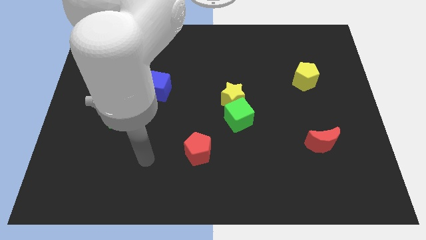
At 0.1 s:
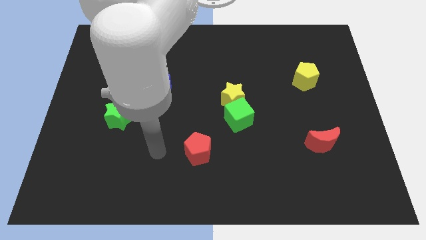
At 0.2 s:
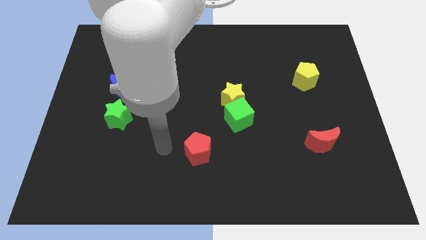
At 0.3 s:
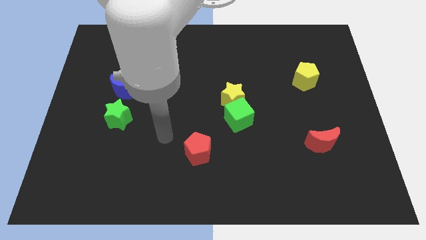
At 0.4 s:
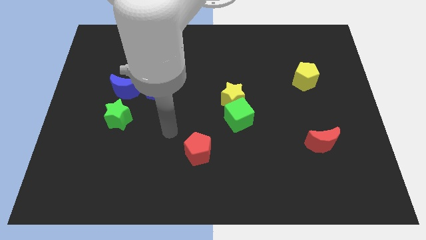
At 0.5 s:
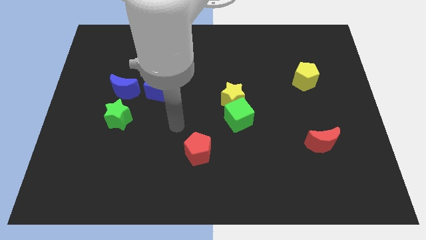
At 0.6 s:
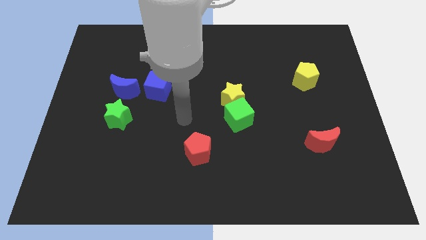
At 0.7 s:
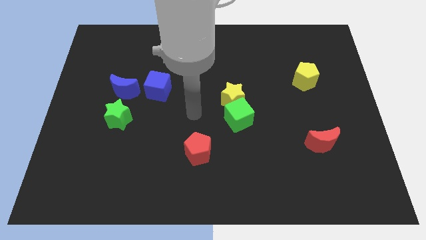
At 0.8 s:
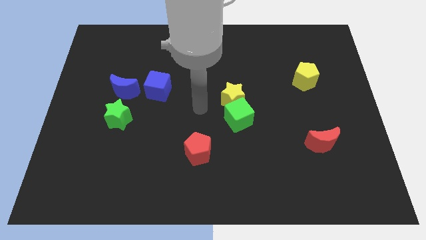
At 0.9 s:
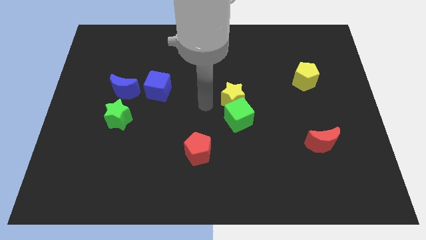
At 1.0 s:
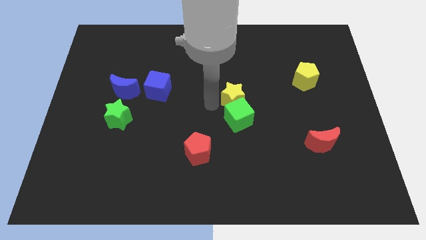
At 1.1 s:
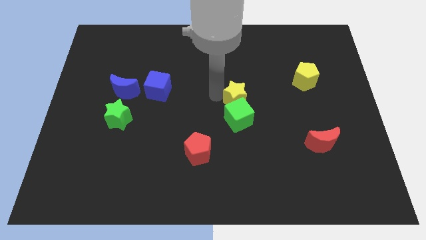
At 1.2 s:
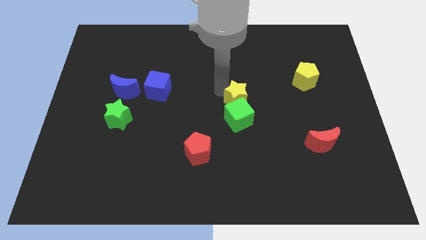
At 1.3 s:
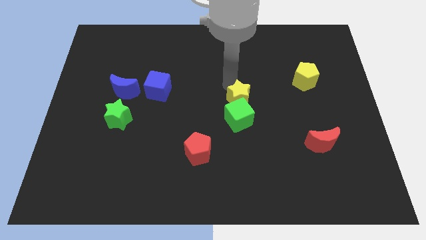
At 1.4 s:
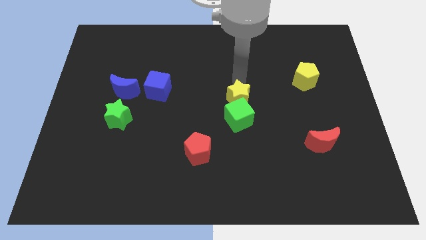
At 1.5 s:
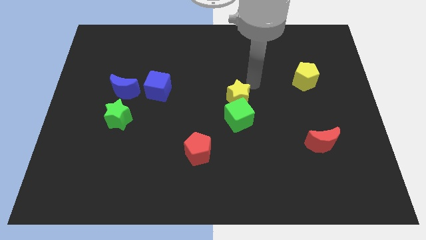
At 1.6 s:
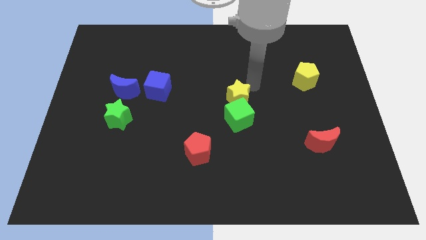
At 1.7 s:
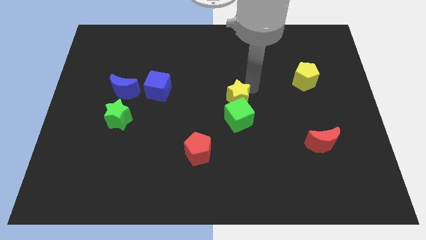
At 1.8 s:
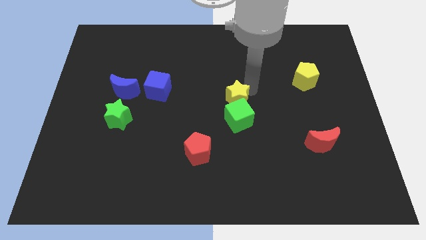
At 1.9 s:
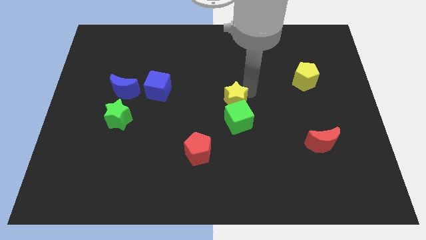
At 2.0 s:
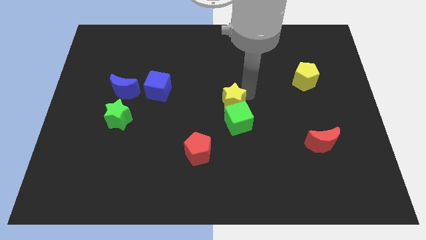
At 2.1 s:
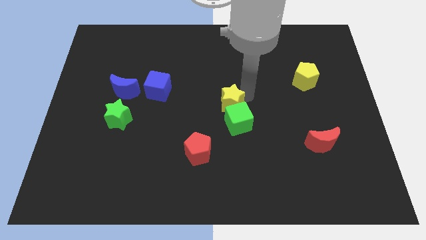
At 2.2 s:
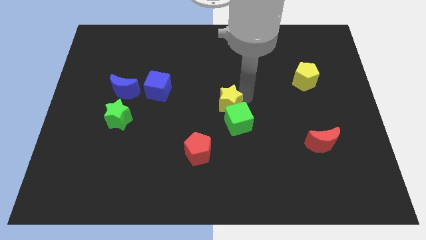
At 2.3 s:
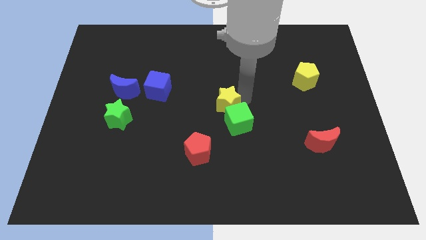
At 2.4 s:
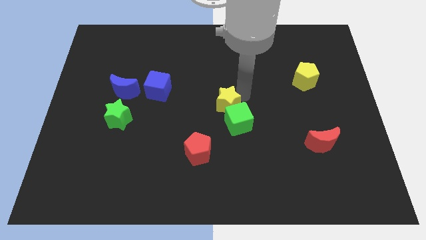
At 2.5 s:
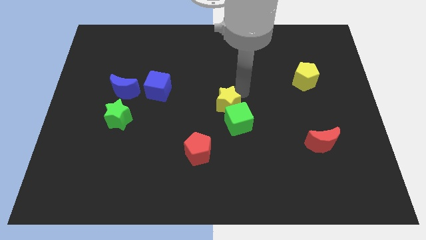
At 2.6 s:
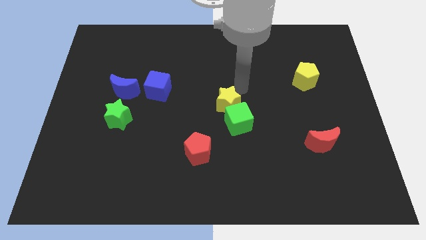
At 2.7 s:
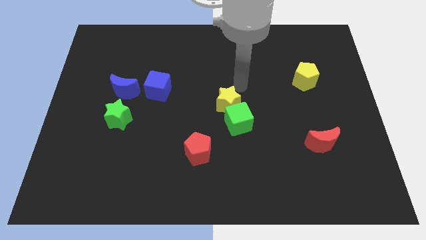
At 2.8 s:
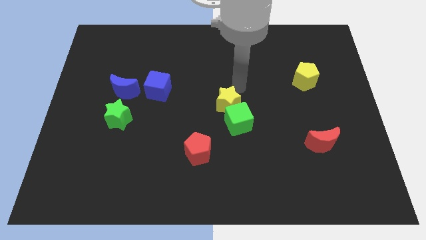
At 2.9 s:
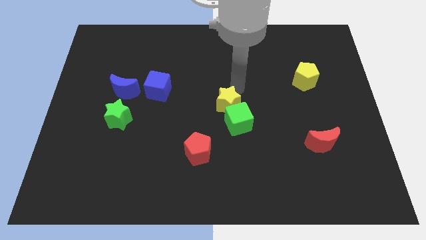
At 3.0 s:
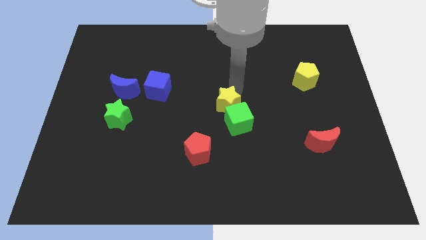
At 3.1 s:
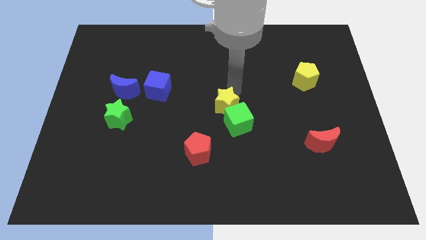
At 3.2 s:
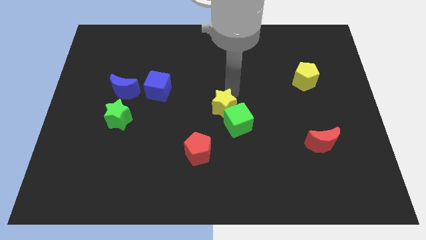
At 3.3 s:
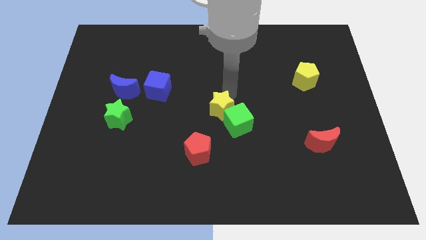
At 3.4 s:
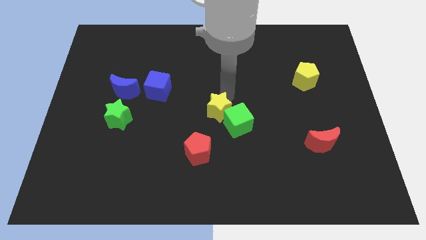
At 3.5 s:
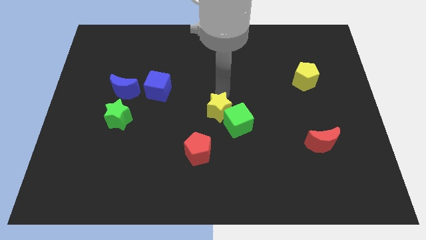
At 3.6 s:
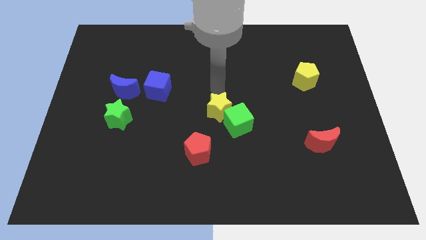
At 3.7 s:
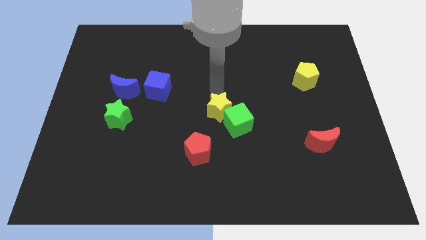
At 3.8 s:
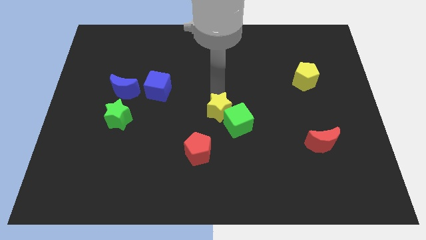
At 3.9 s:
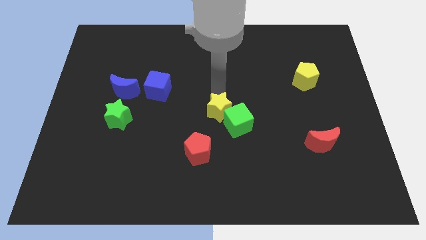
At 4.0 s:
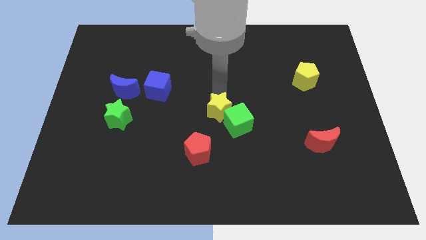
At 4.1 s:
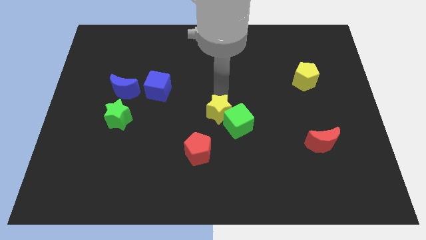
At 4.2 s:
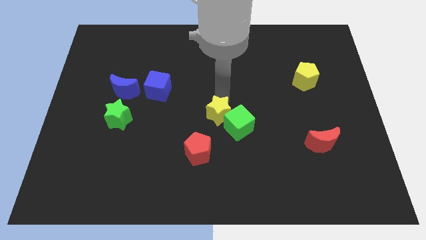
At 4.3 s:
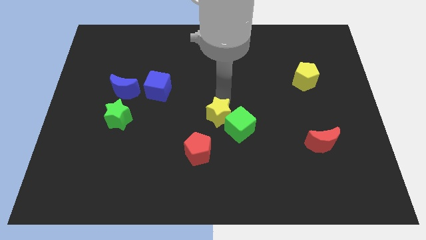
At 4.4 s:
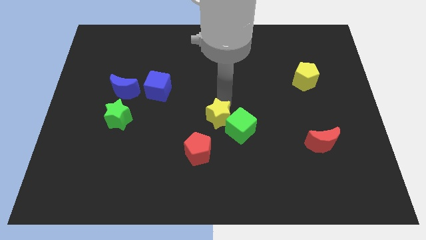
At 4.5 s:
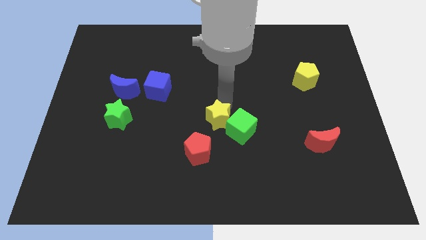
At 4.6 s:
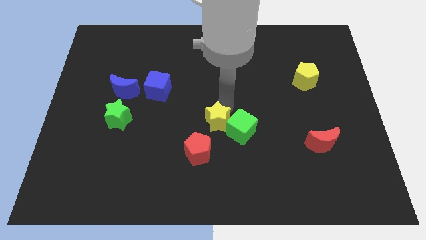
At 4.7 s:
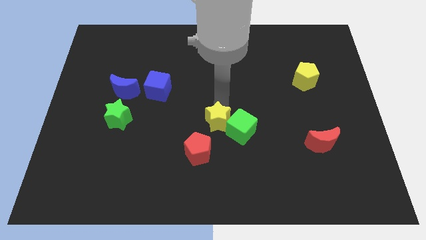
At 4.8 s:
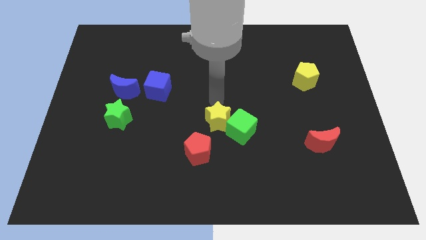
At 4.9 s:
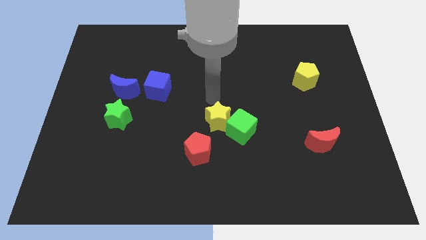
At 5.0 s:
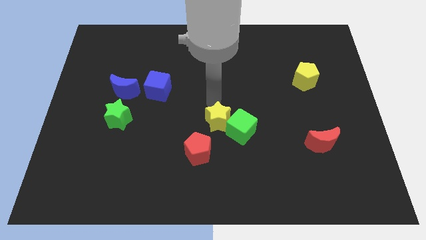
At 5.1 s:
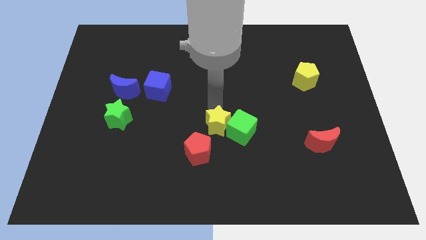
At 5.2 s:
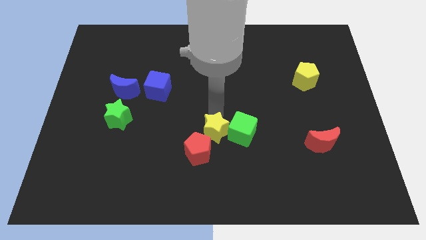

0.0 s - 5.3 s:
slightly slide the yellow star downwards

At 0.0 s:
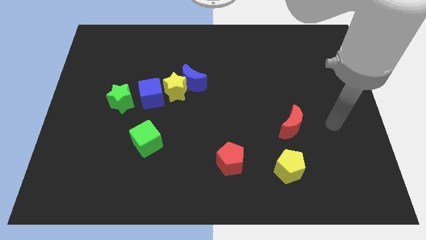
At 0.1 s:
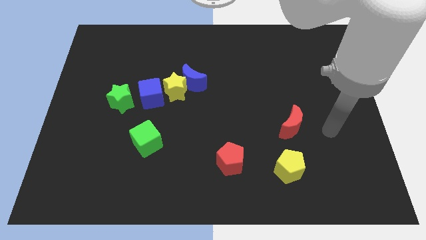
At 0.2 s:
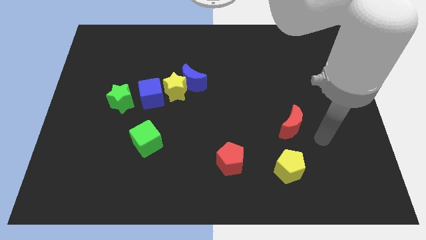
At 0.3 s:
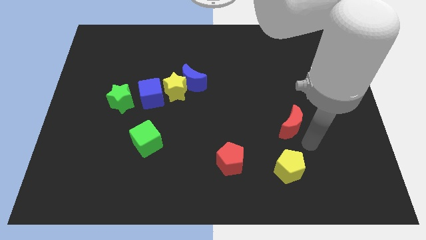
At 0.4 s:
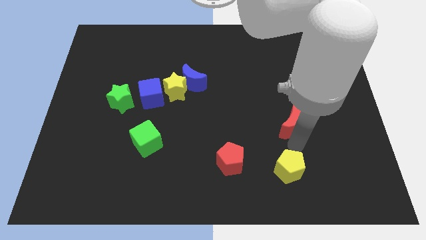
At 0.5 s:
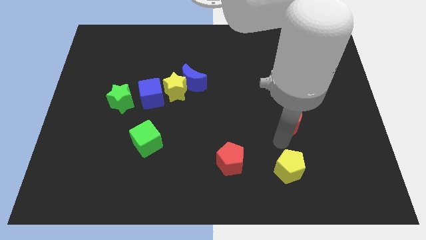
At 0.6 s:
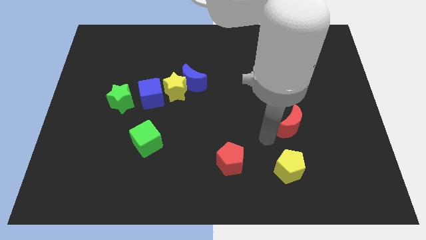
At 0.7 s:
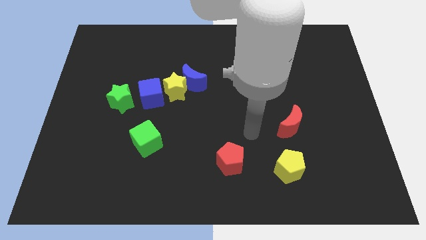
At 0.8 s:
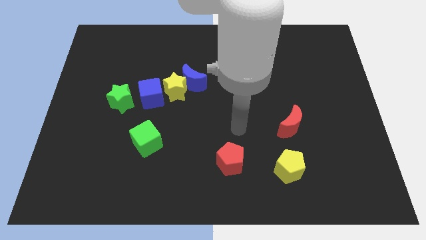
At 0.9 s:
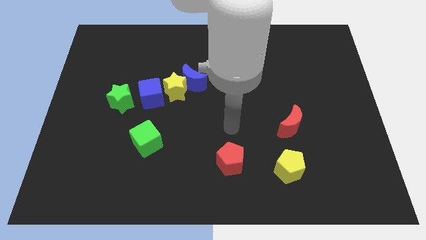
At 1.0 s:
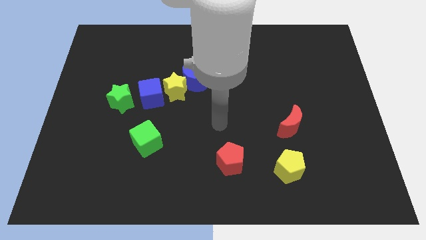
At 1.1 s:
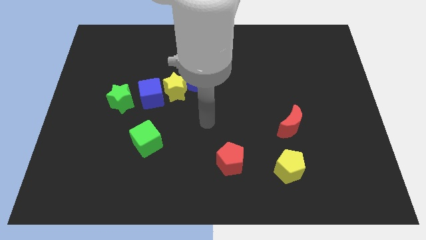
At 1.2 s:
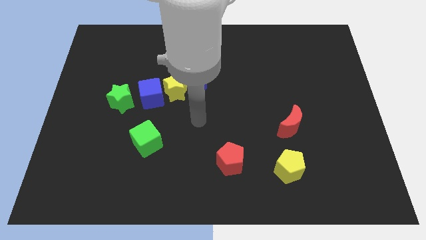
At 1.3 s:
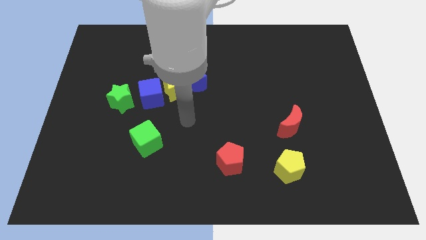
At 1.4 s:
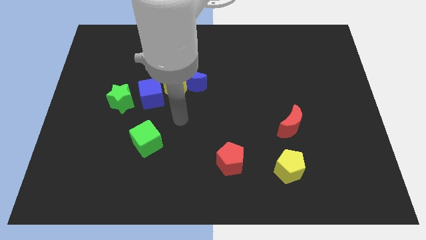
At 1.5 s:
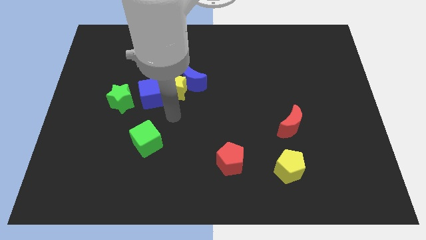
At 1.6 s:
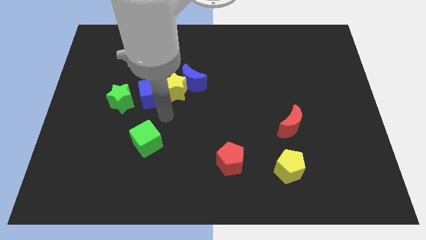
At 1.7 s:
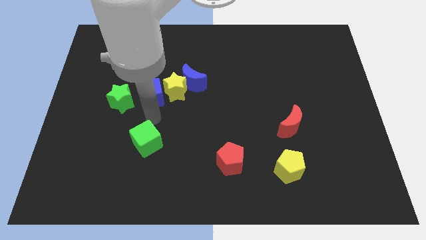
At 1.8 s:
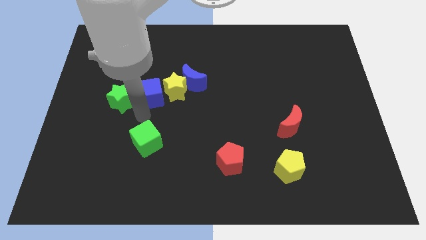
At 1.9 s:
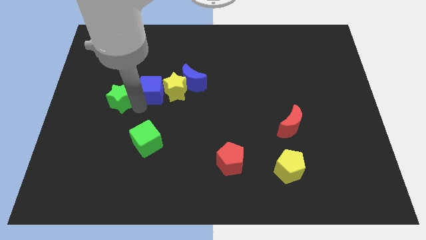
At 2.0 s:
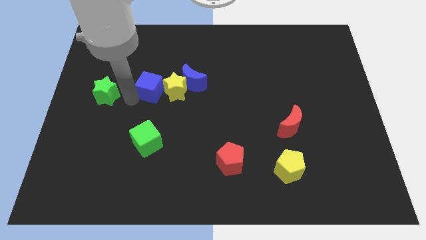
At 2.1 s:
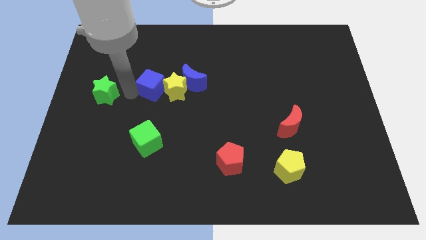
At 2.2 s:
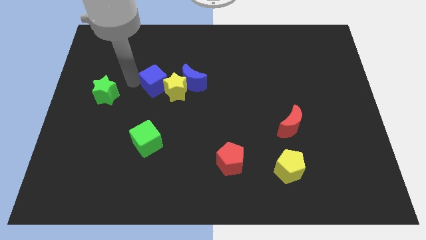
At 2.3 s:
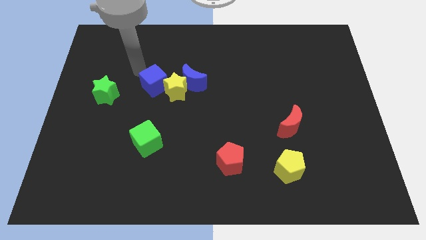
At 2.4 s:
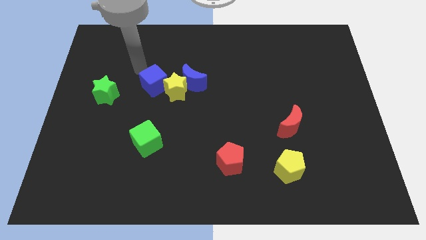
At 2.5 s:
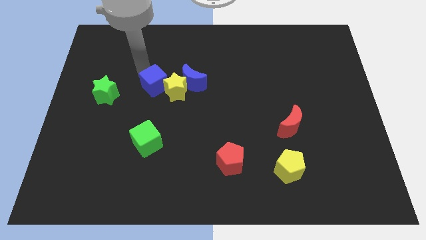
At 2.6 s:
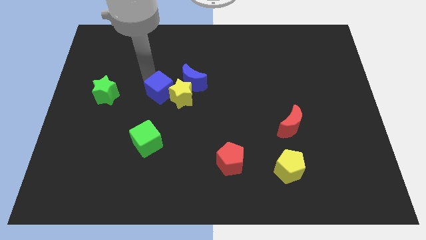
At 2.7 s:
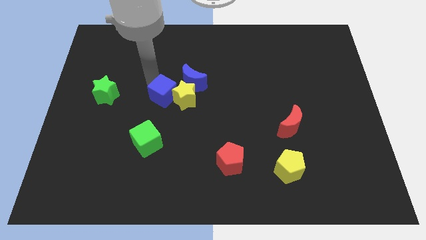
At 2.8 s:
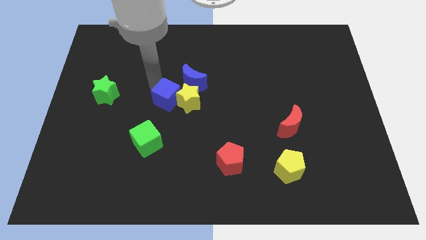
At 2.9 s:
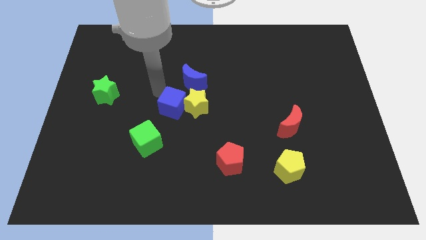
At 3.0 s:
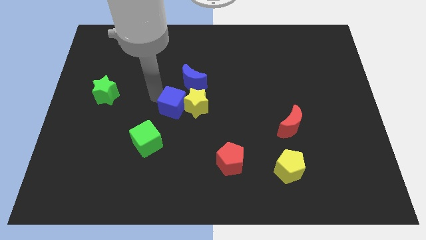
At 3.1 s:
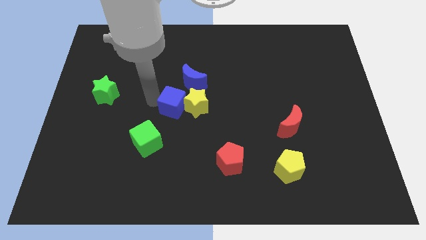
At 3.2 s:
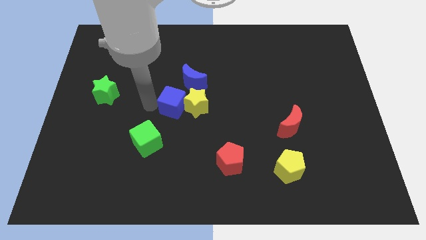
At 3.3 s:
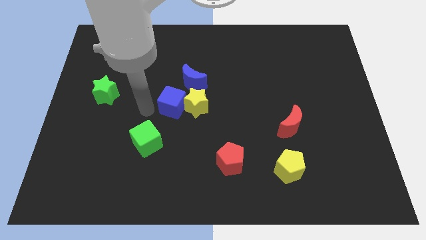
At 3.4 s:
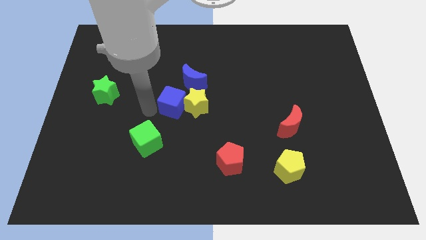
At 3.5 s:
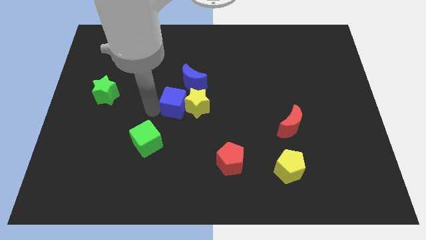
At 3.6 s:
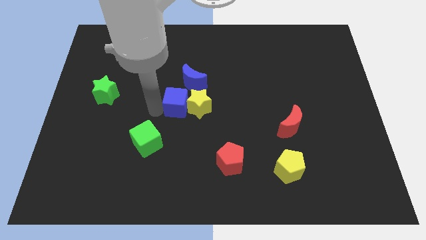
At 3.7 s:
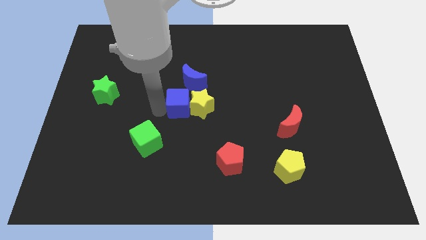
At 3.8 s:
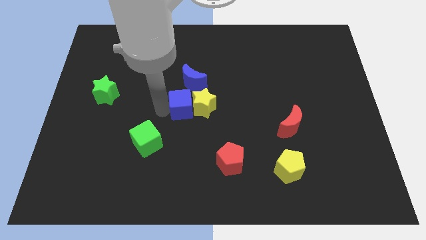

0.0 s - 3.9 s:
push the blue cube right a little
